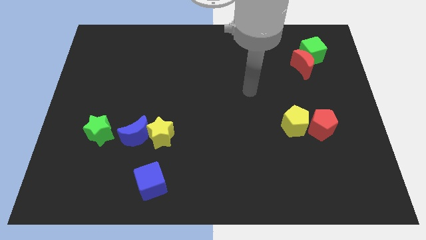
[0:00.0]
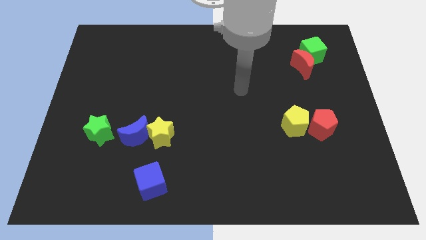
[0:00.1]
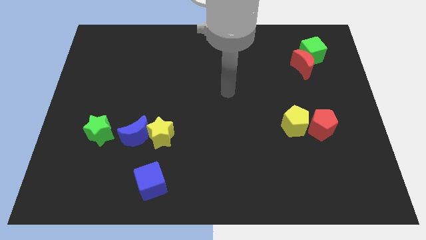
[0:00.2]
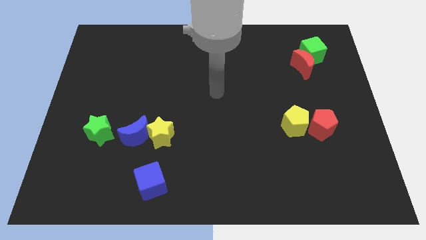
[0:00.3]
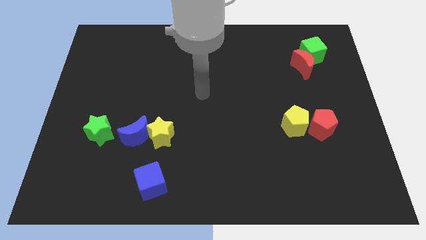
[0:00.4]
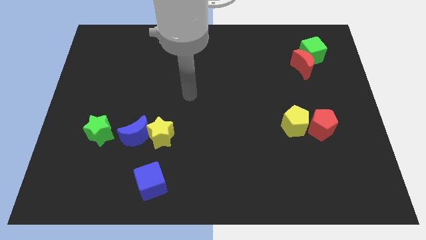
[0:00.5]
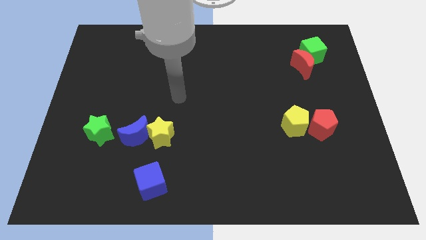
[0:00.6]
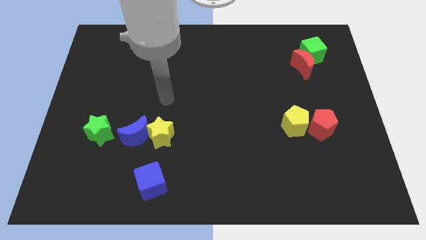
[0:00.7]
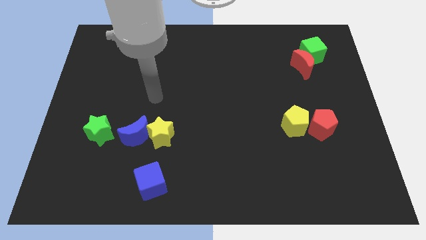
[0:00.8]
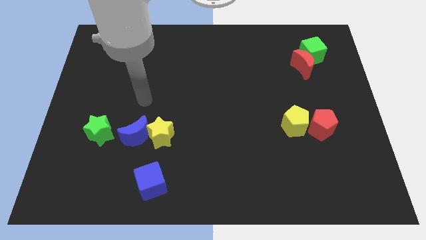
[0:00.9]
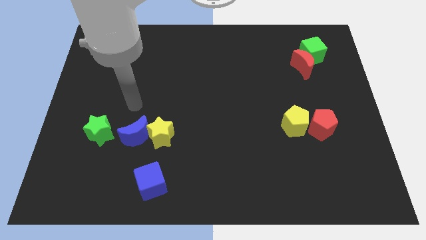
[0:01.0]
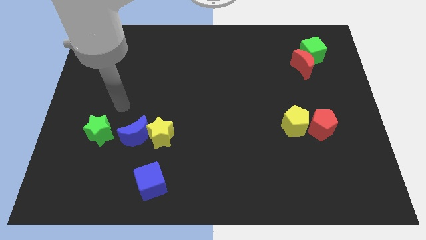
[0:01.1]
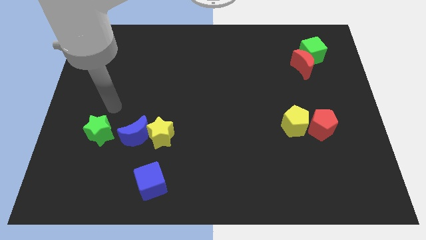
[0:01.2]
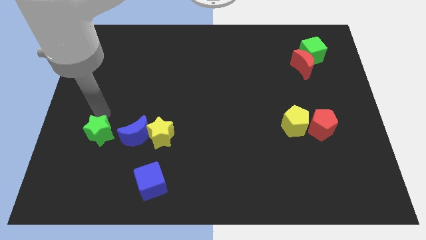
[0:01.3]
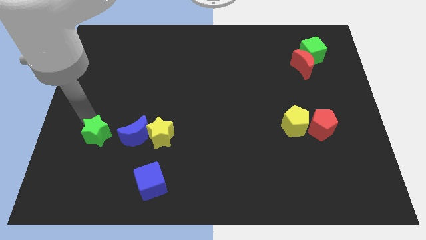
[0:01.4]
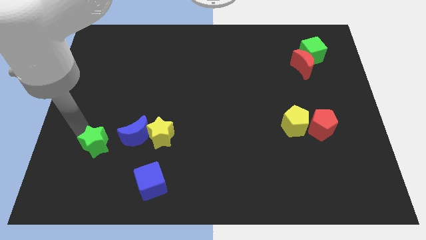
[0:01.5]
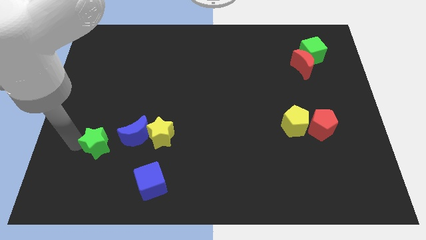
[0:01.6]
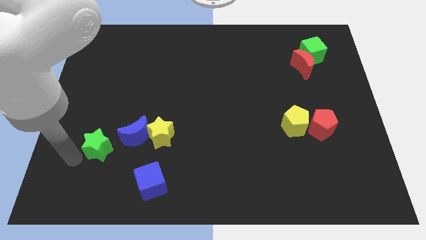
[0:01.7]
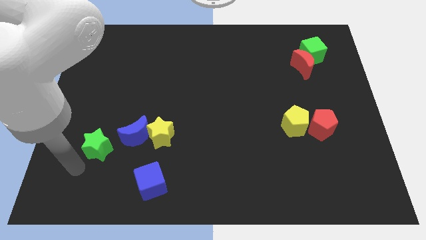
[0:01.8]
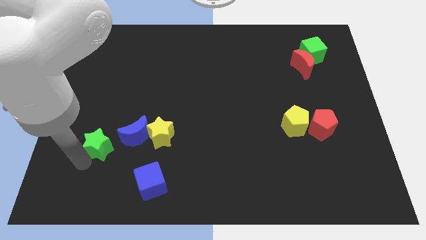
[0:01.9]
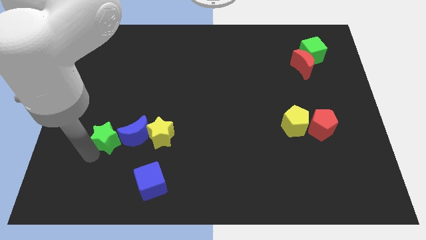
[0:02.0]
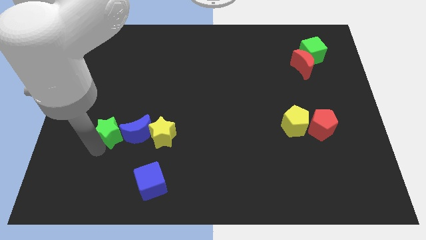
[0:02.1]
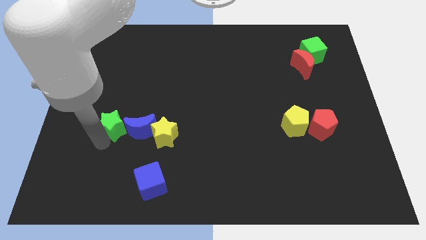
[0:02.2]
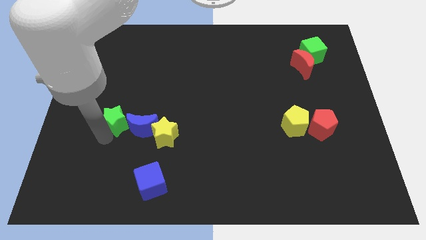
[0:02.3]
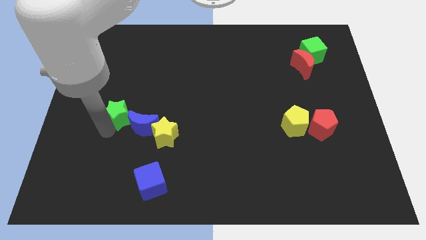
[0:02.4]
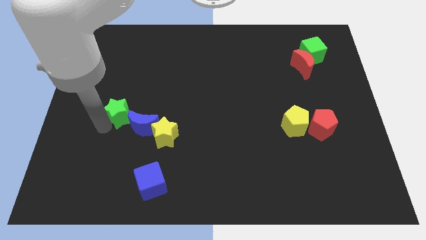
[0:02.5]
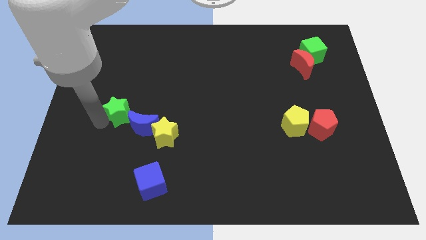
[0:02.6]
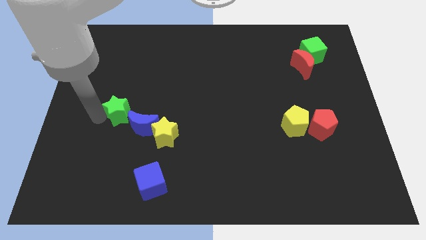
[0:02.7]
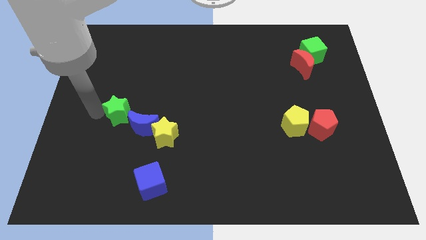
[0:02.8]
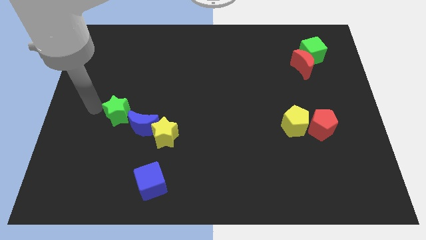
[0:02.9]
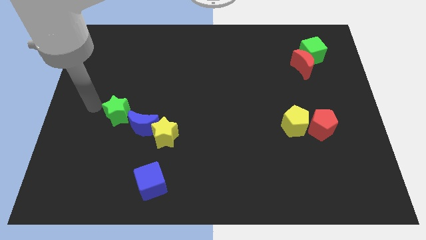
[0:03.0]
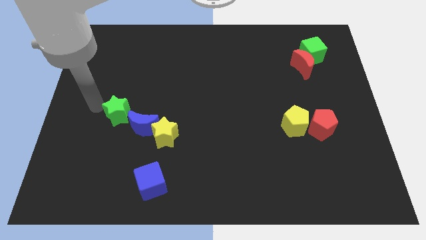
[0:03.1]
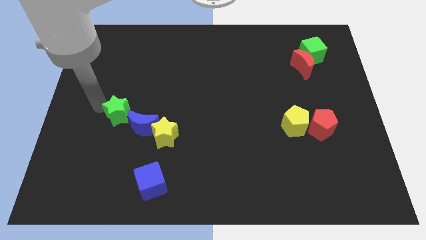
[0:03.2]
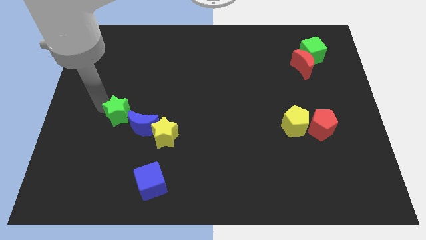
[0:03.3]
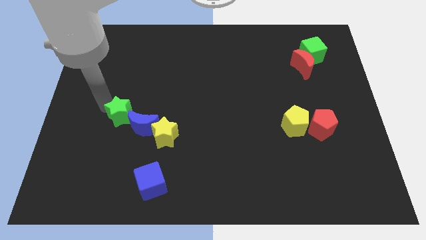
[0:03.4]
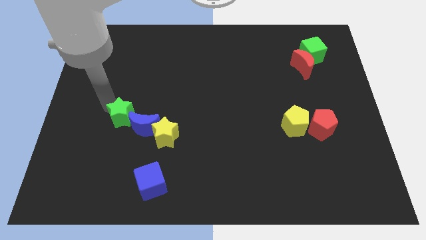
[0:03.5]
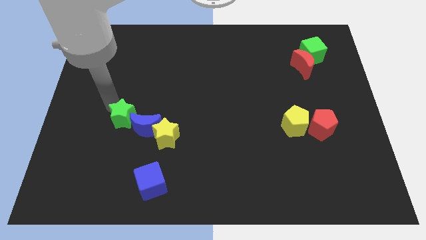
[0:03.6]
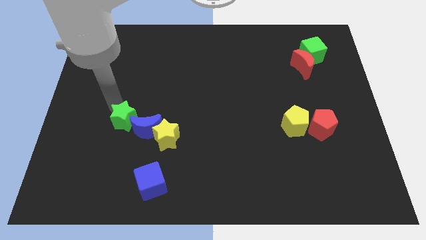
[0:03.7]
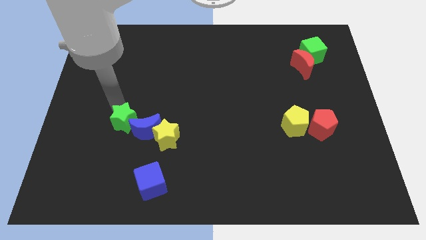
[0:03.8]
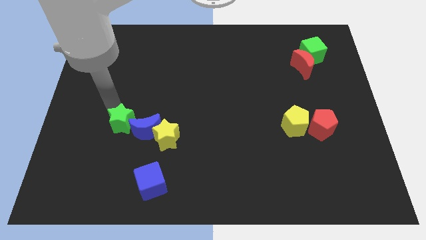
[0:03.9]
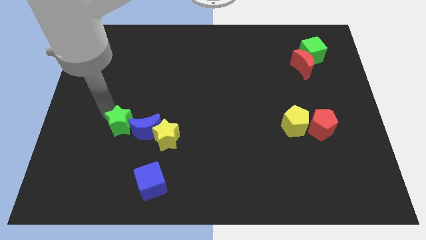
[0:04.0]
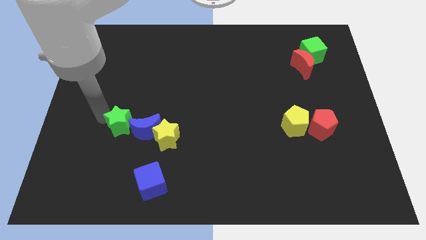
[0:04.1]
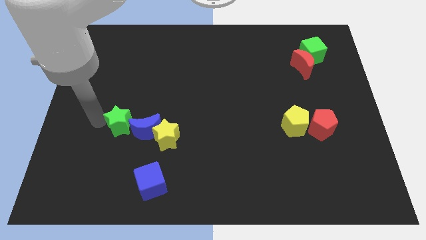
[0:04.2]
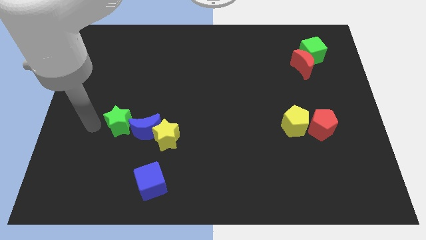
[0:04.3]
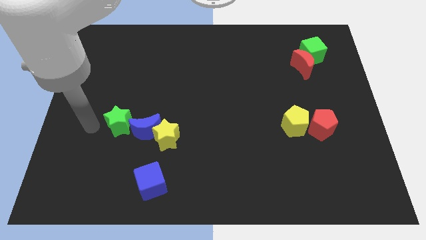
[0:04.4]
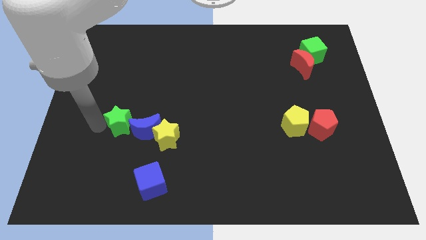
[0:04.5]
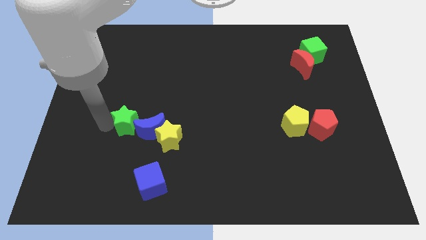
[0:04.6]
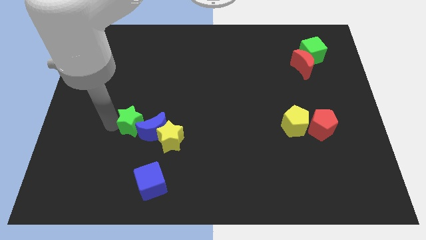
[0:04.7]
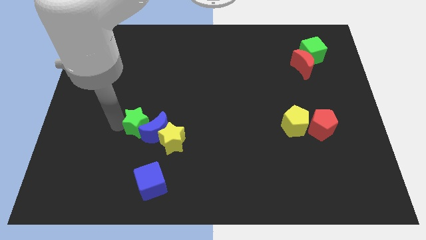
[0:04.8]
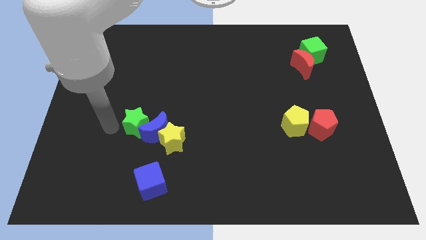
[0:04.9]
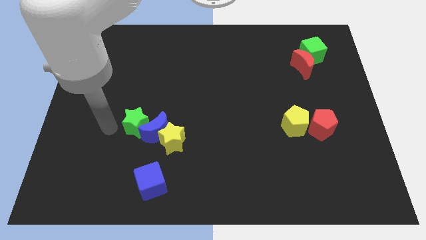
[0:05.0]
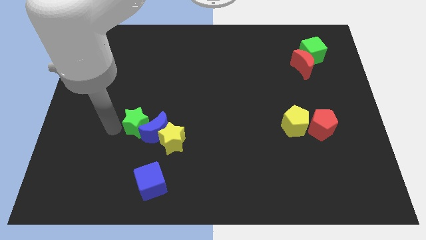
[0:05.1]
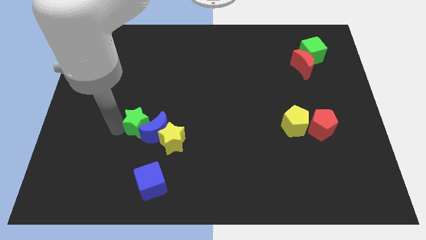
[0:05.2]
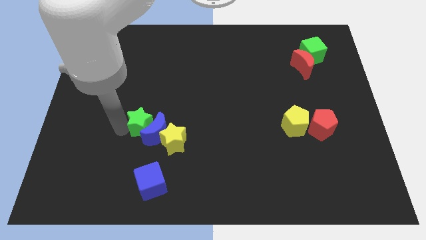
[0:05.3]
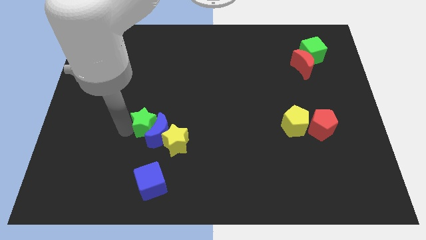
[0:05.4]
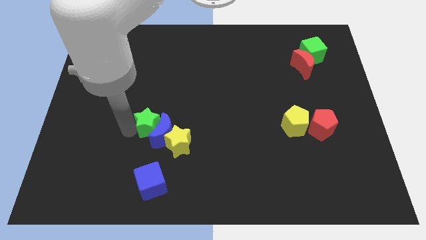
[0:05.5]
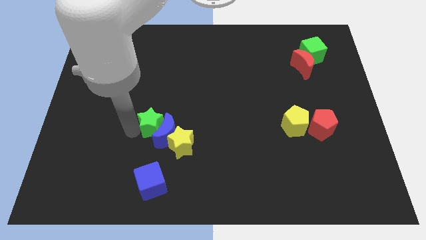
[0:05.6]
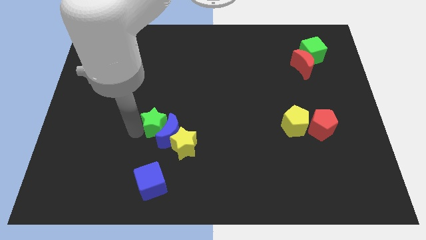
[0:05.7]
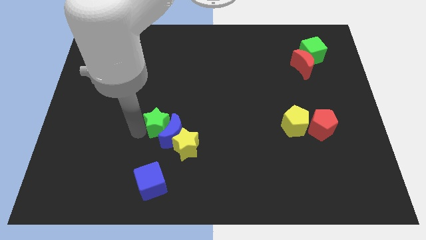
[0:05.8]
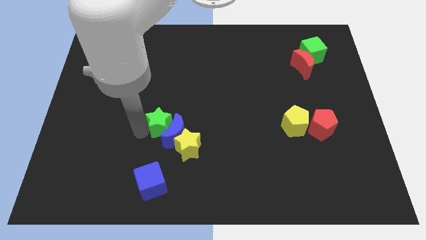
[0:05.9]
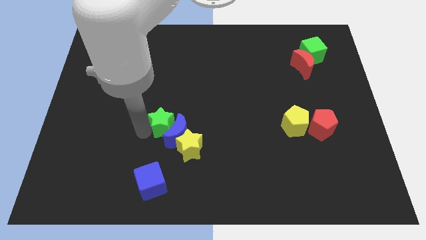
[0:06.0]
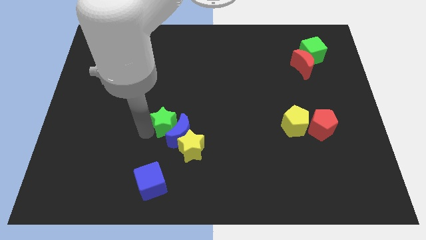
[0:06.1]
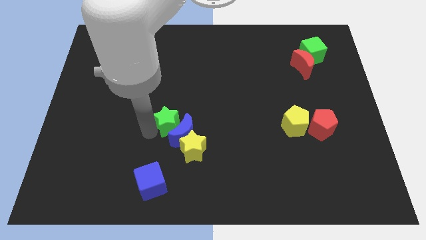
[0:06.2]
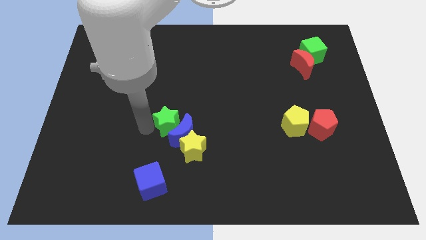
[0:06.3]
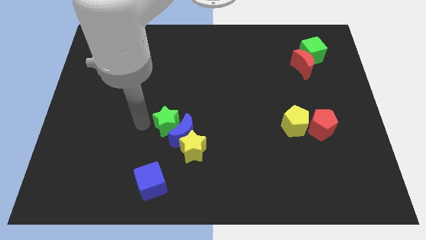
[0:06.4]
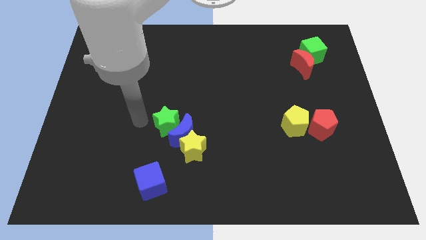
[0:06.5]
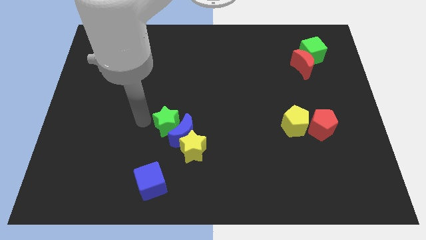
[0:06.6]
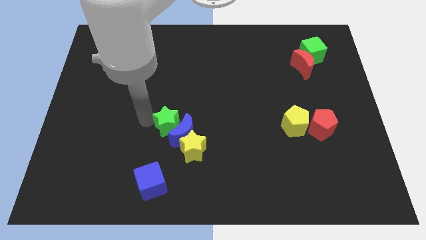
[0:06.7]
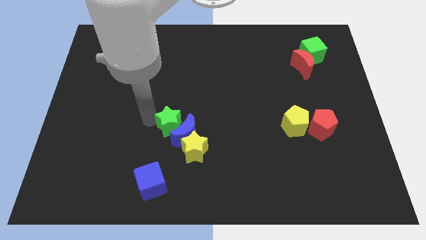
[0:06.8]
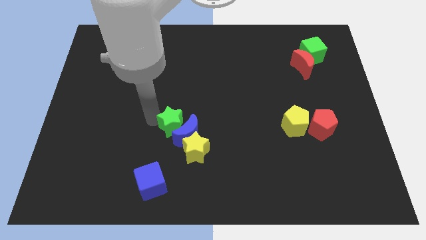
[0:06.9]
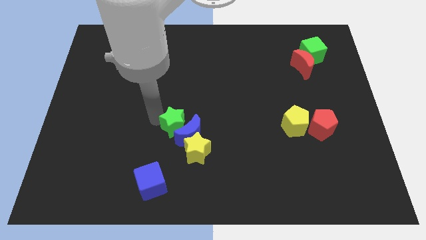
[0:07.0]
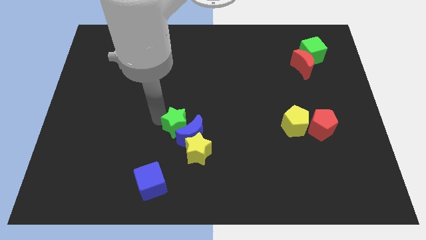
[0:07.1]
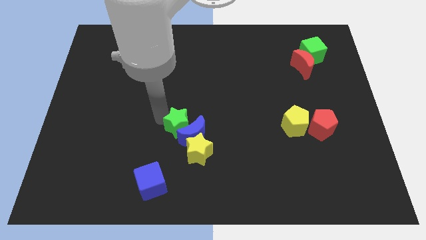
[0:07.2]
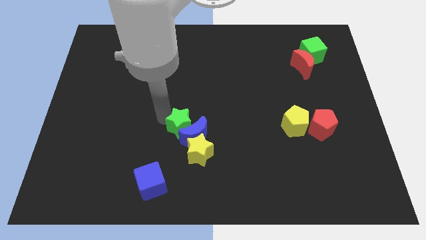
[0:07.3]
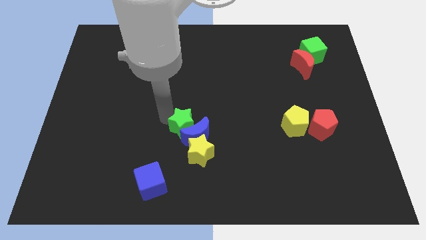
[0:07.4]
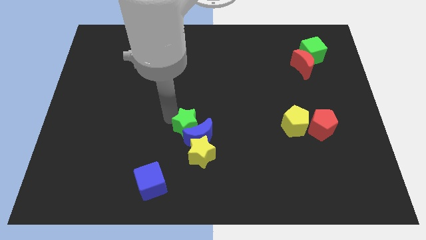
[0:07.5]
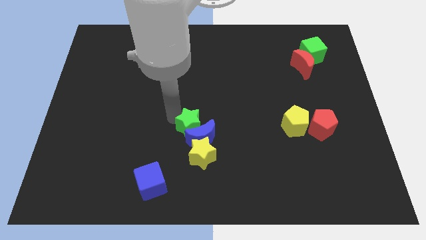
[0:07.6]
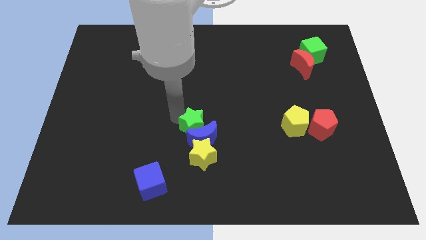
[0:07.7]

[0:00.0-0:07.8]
push the green star to the right
